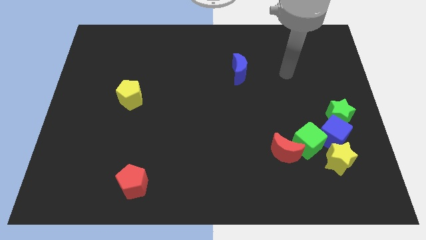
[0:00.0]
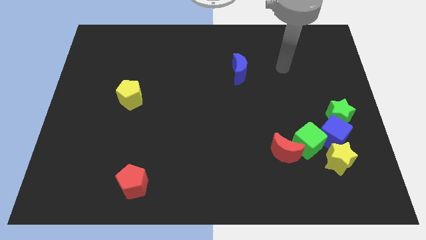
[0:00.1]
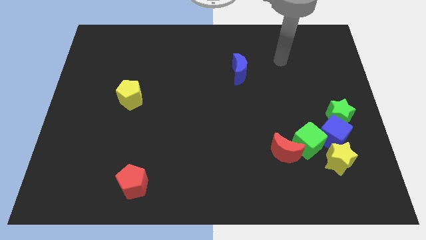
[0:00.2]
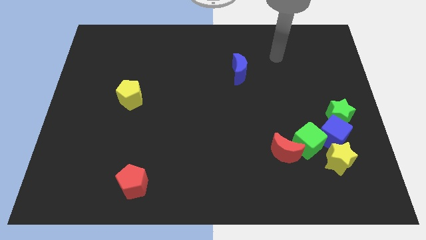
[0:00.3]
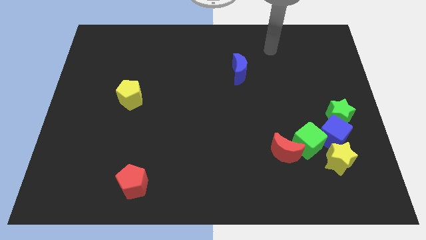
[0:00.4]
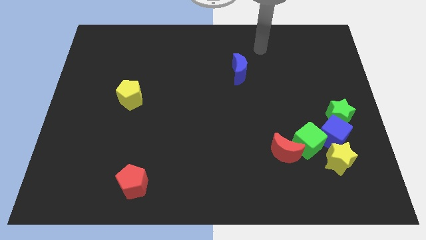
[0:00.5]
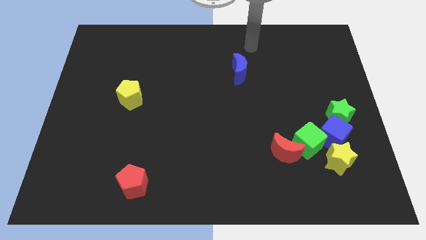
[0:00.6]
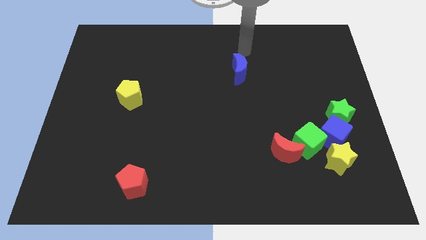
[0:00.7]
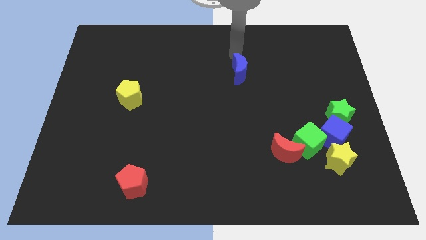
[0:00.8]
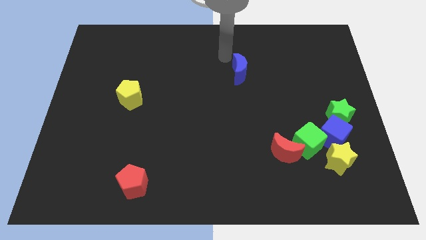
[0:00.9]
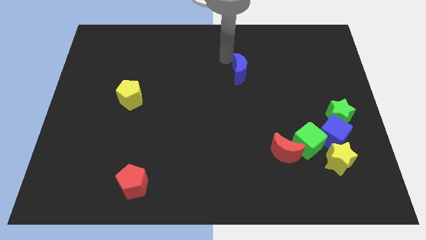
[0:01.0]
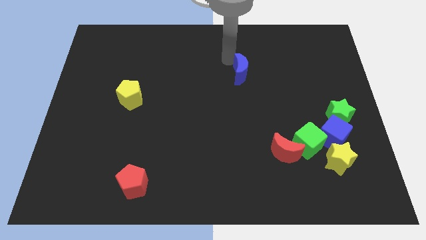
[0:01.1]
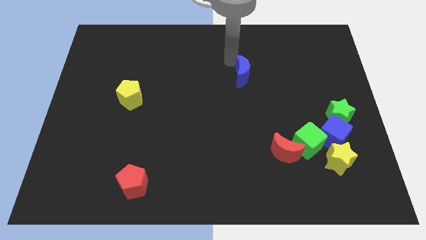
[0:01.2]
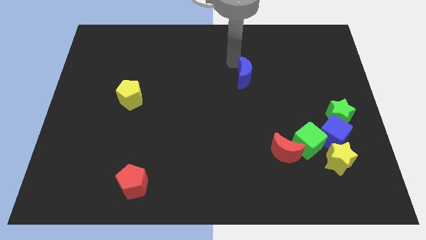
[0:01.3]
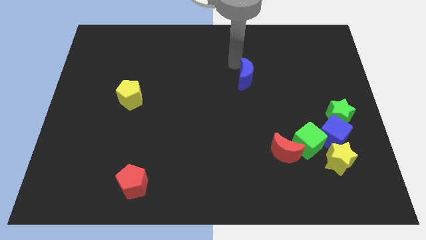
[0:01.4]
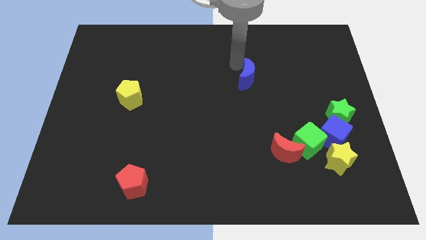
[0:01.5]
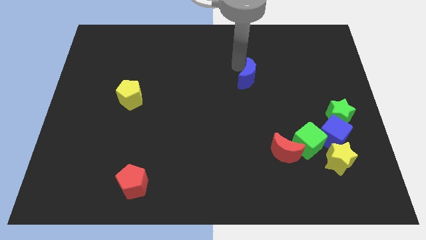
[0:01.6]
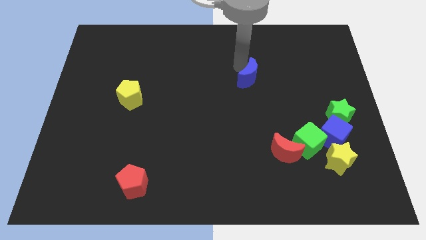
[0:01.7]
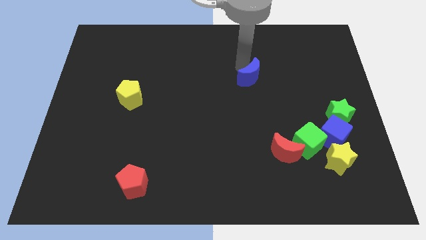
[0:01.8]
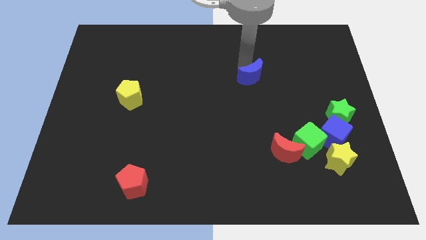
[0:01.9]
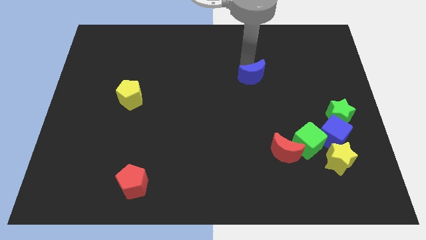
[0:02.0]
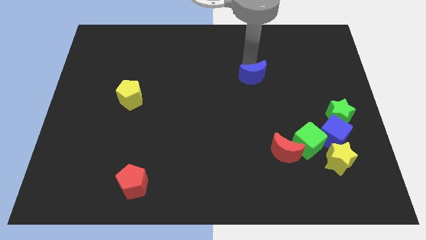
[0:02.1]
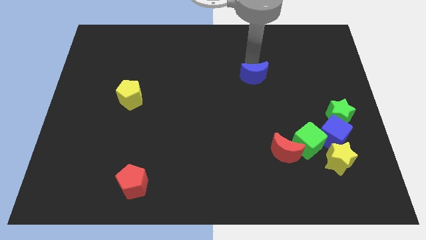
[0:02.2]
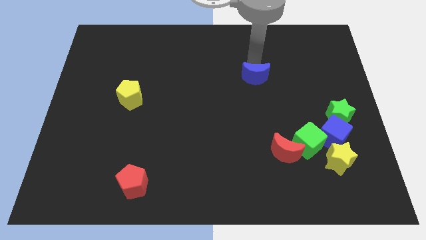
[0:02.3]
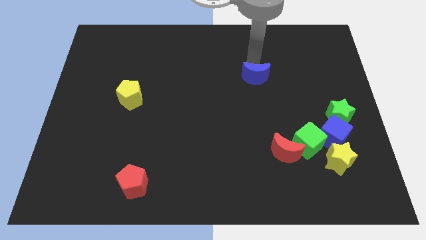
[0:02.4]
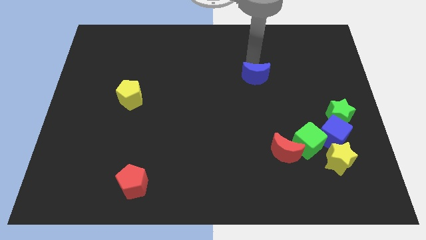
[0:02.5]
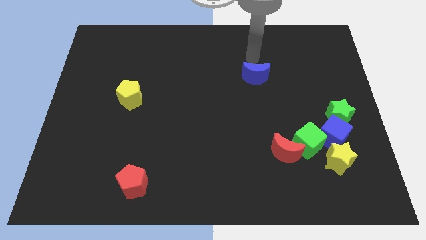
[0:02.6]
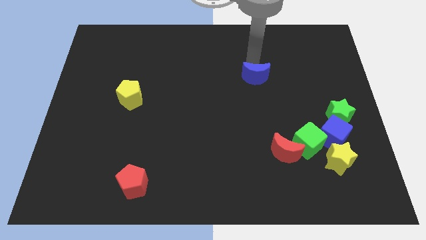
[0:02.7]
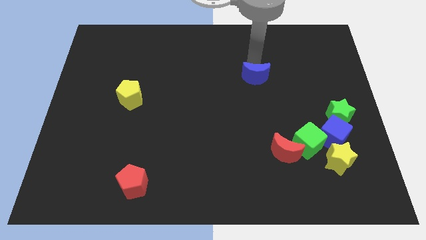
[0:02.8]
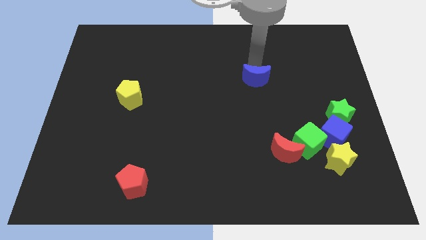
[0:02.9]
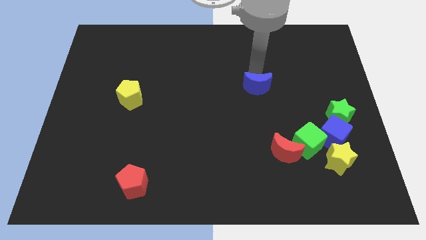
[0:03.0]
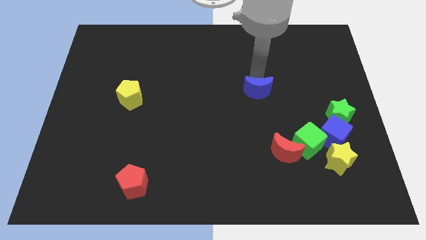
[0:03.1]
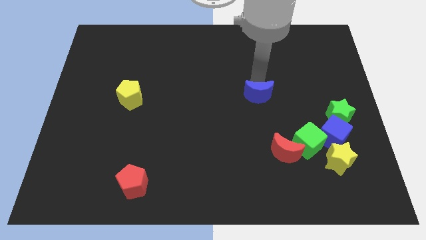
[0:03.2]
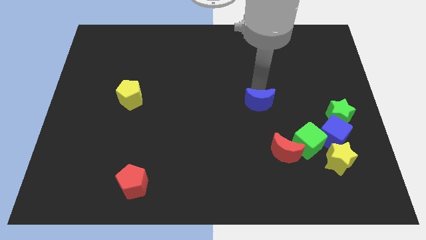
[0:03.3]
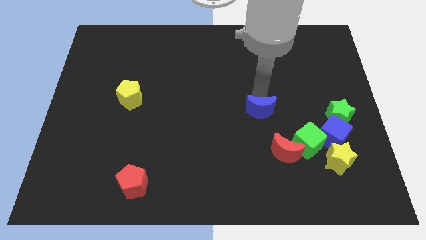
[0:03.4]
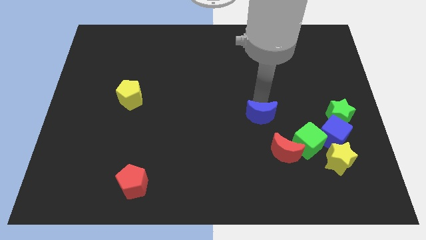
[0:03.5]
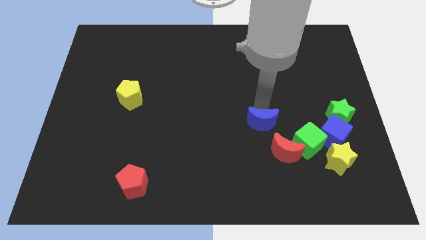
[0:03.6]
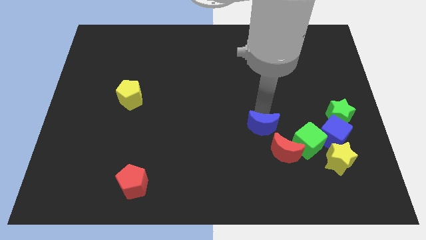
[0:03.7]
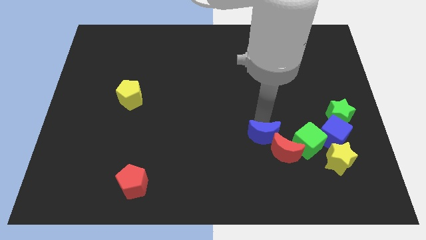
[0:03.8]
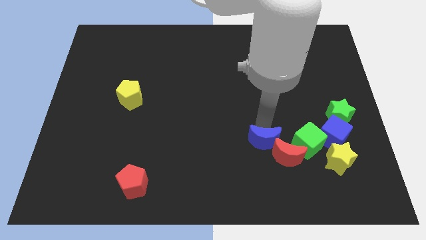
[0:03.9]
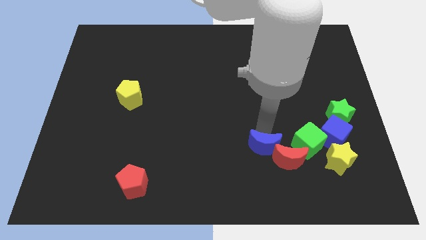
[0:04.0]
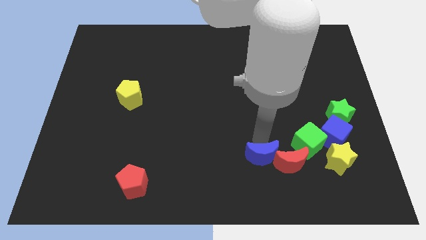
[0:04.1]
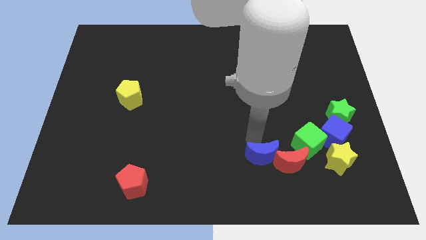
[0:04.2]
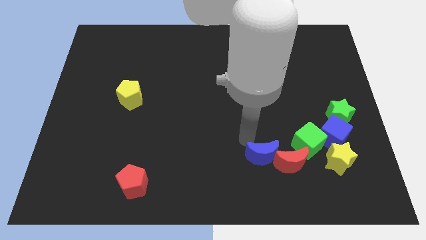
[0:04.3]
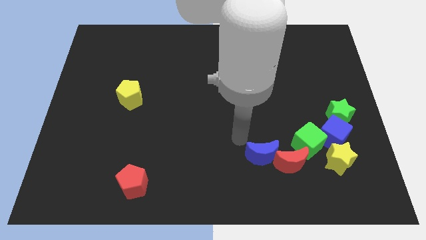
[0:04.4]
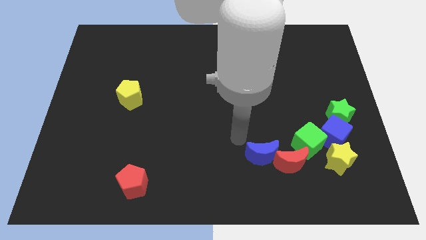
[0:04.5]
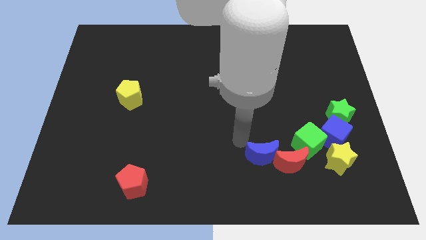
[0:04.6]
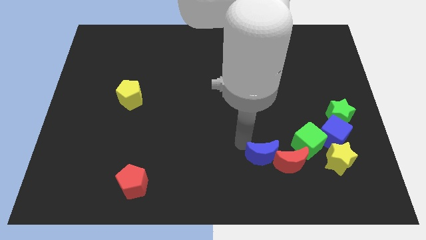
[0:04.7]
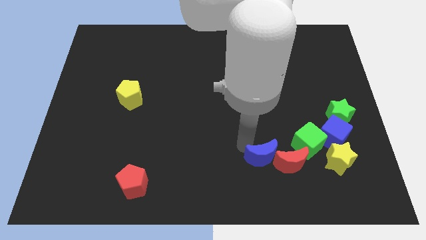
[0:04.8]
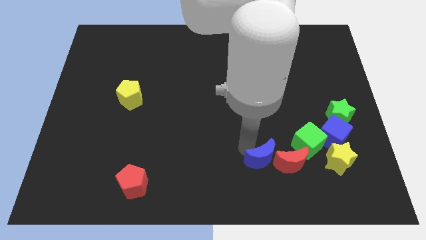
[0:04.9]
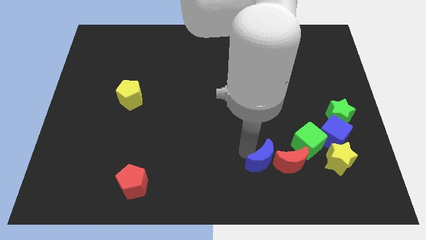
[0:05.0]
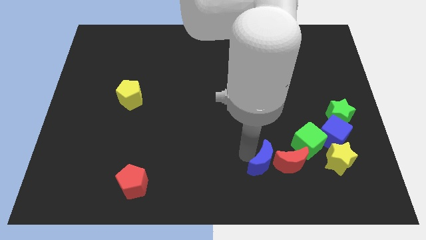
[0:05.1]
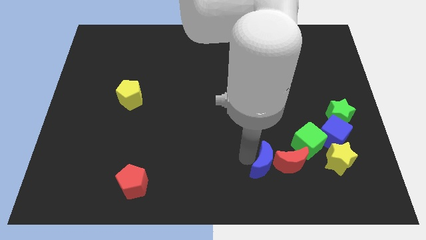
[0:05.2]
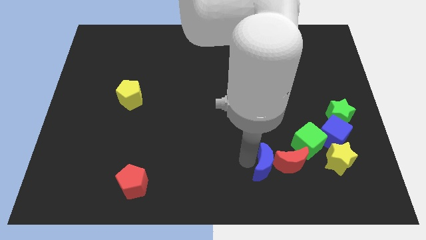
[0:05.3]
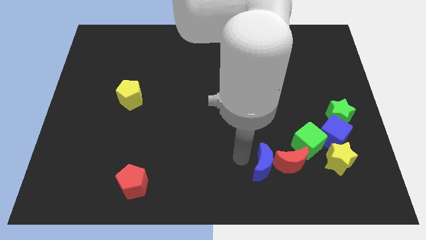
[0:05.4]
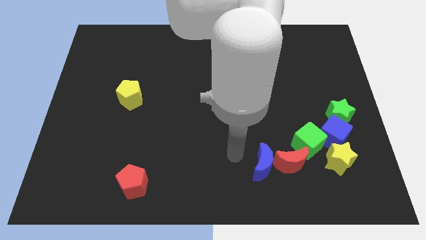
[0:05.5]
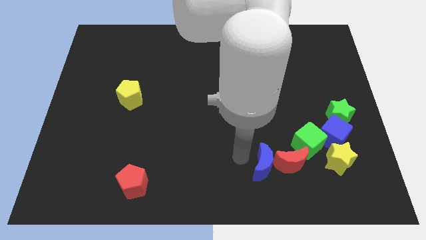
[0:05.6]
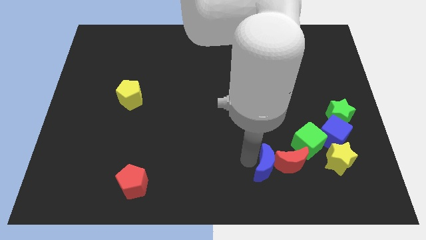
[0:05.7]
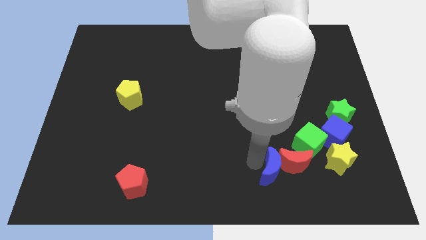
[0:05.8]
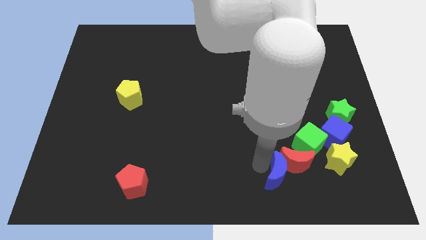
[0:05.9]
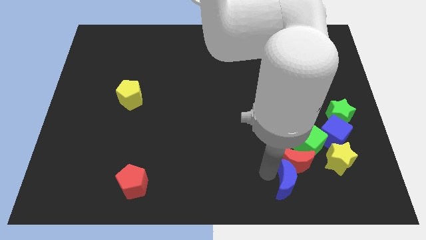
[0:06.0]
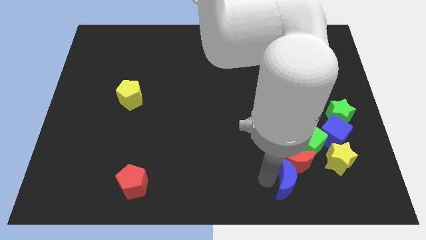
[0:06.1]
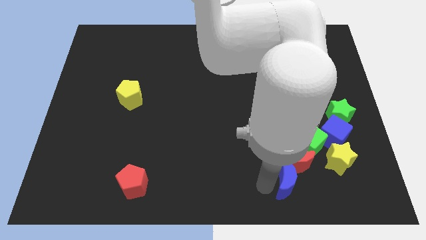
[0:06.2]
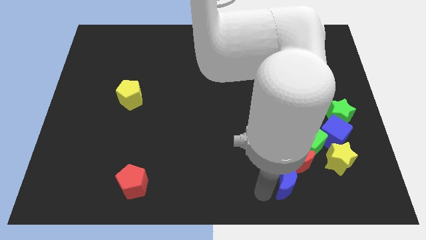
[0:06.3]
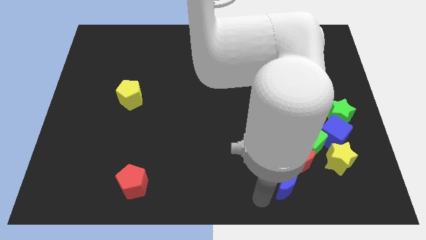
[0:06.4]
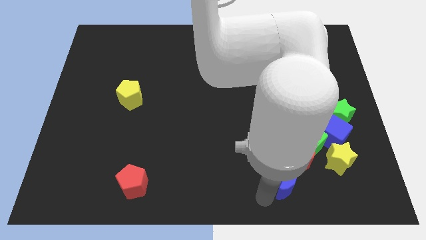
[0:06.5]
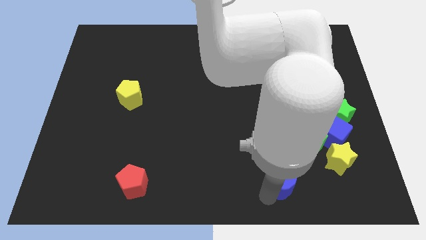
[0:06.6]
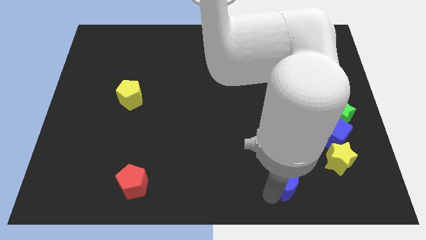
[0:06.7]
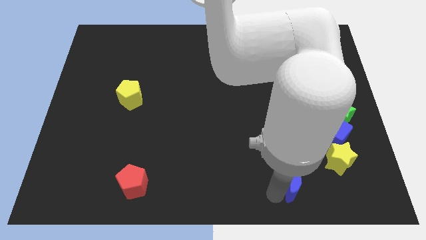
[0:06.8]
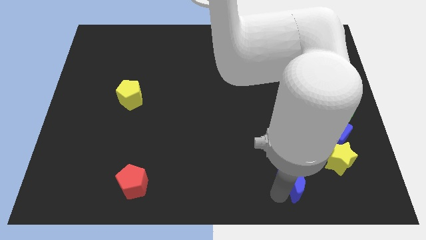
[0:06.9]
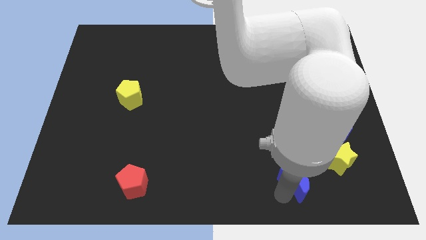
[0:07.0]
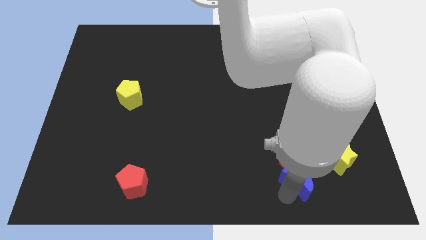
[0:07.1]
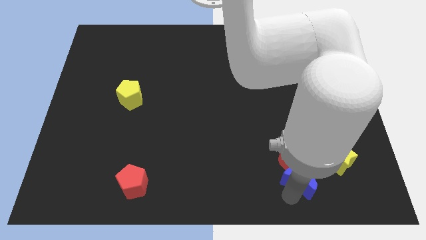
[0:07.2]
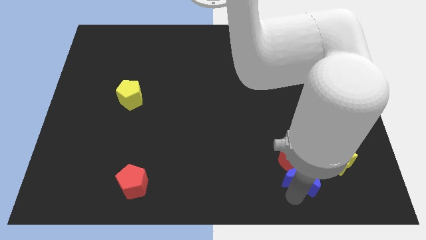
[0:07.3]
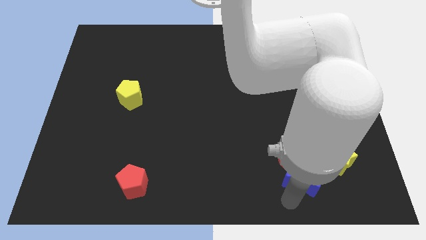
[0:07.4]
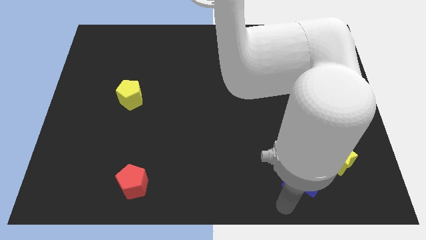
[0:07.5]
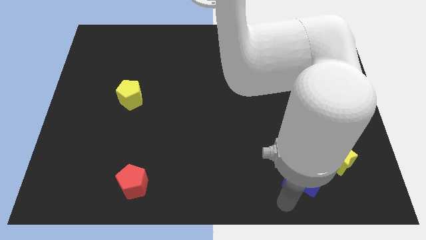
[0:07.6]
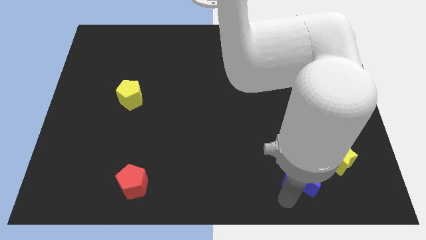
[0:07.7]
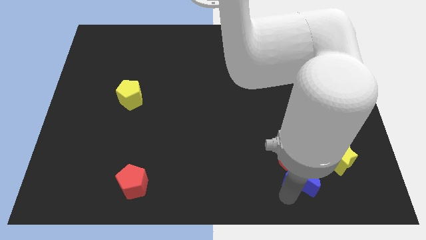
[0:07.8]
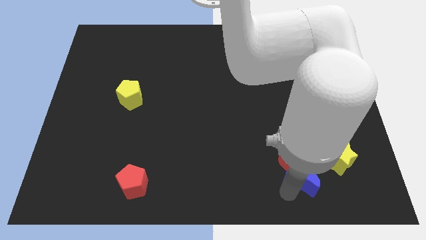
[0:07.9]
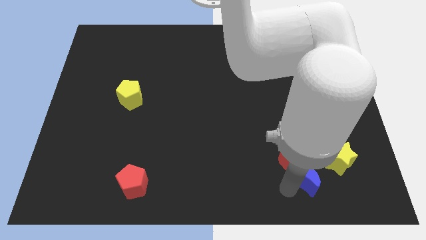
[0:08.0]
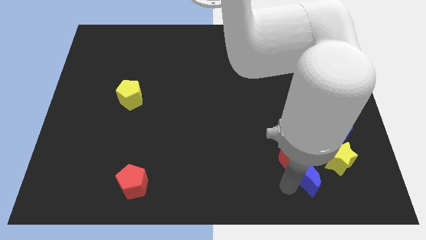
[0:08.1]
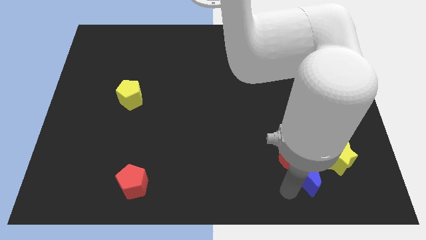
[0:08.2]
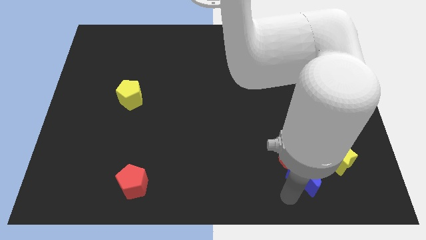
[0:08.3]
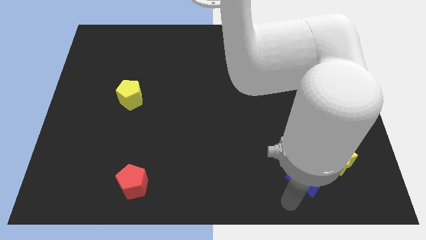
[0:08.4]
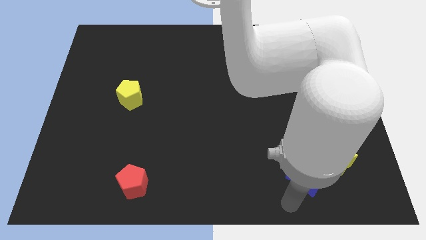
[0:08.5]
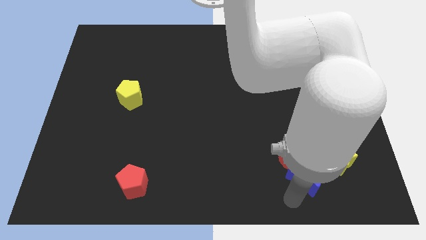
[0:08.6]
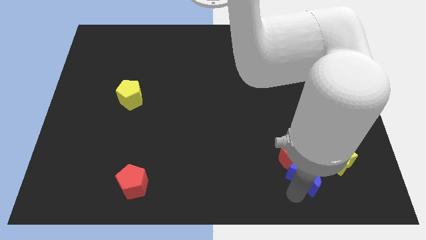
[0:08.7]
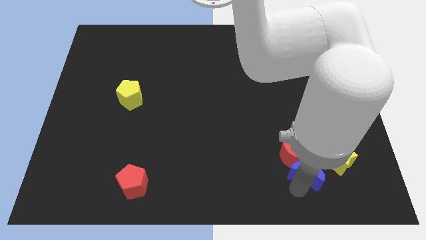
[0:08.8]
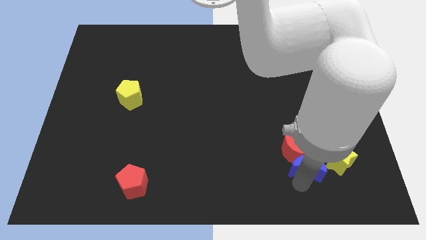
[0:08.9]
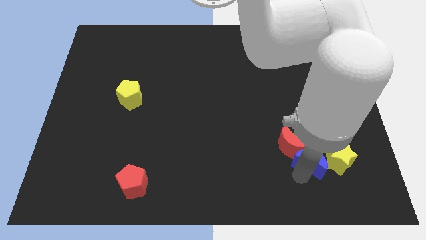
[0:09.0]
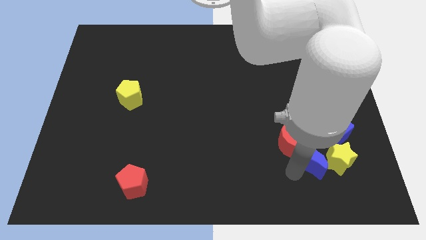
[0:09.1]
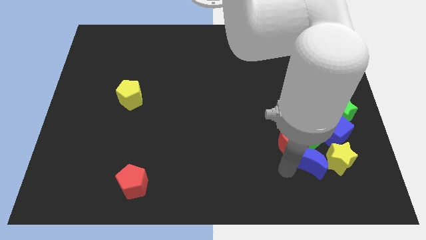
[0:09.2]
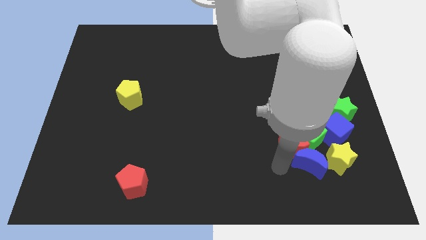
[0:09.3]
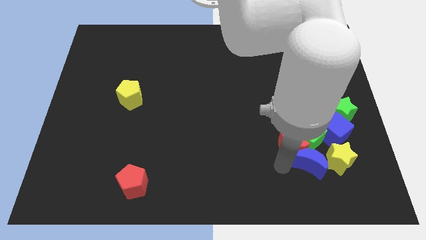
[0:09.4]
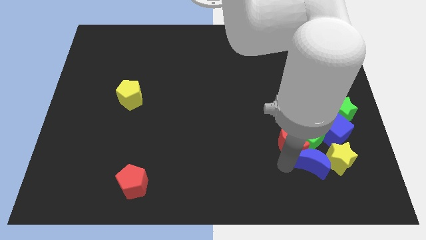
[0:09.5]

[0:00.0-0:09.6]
push the blue moon close to the yellow star
